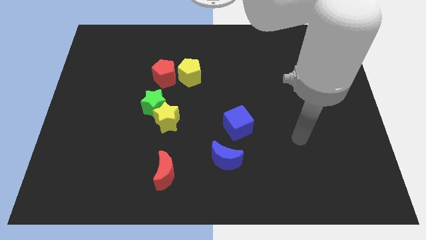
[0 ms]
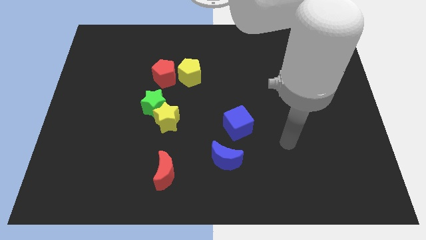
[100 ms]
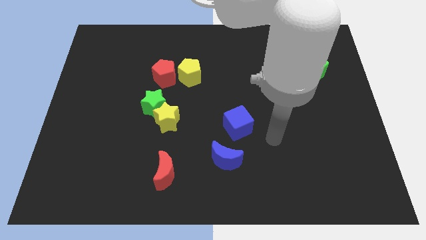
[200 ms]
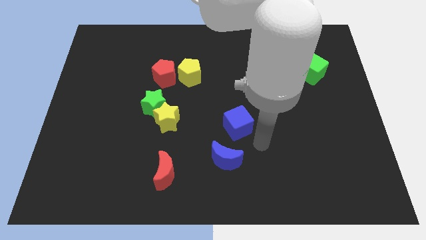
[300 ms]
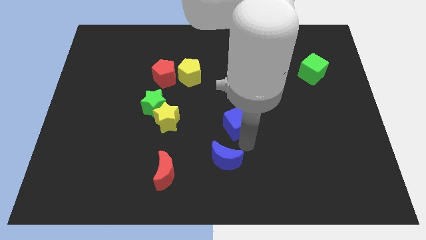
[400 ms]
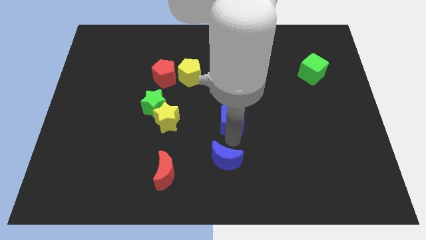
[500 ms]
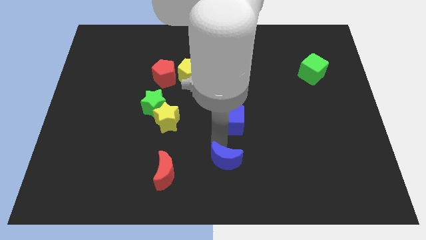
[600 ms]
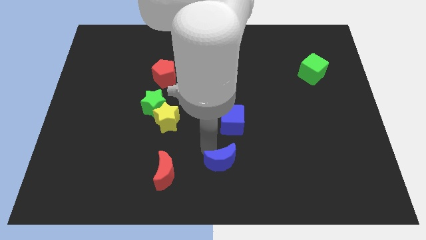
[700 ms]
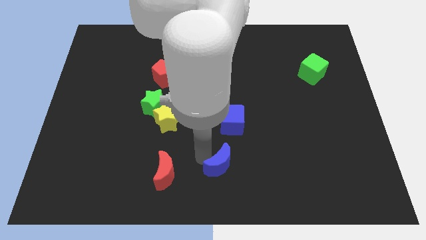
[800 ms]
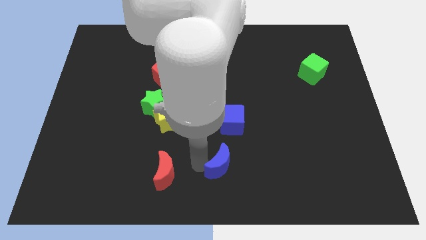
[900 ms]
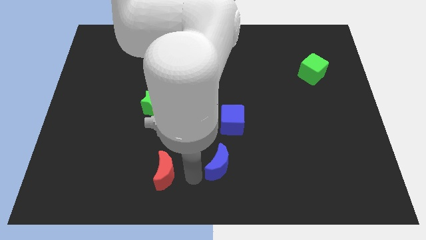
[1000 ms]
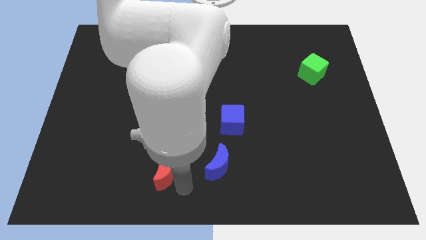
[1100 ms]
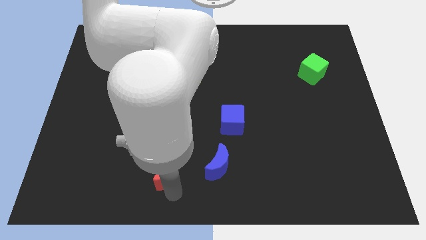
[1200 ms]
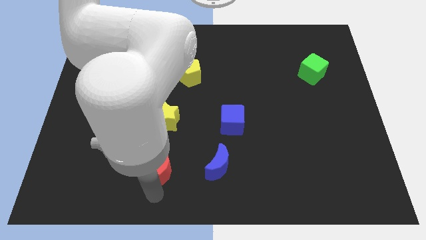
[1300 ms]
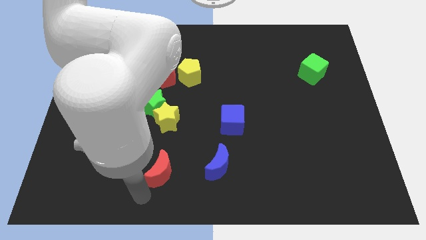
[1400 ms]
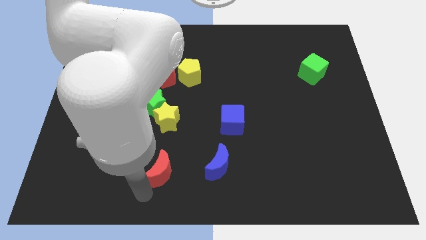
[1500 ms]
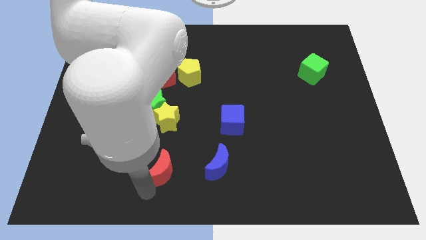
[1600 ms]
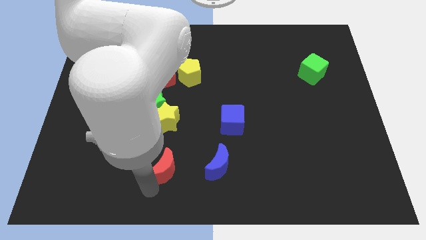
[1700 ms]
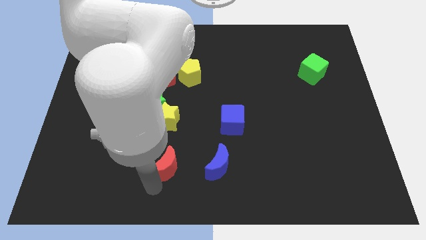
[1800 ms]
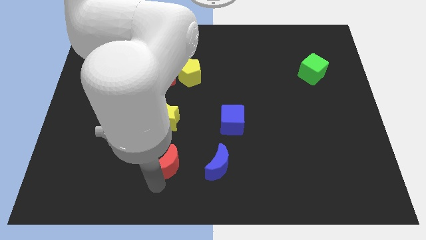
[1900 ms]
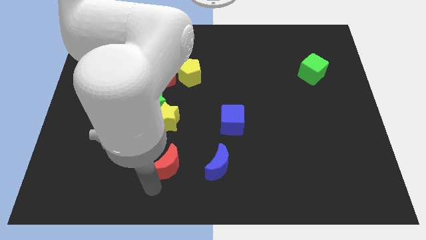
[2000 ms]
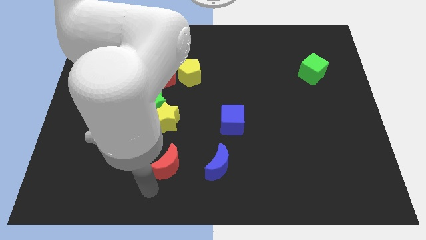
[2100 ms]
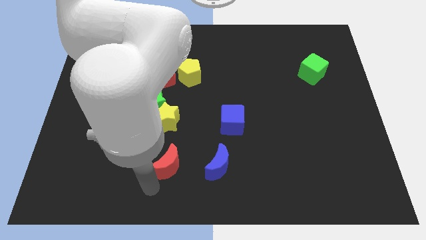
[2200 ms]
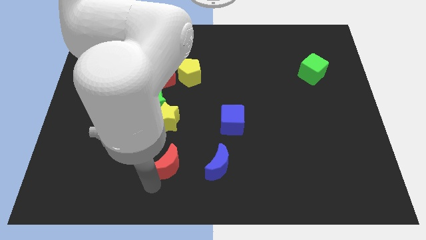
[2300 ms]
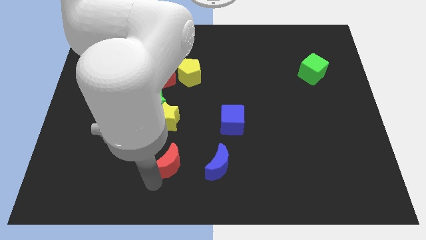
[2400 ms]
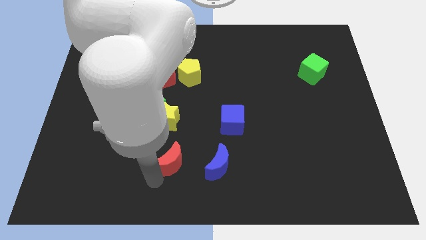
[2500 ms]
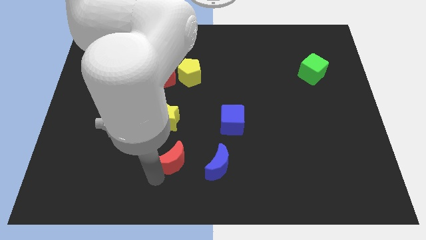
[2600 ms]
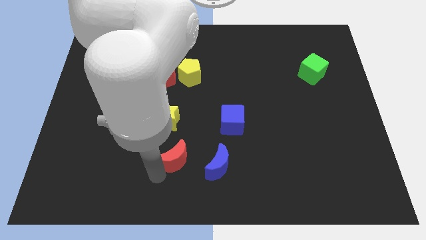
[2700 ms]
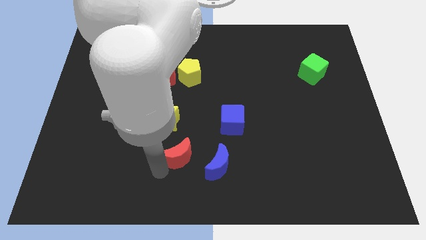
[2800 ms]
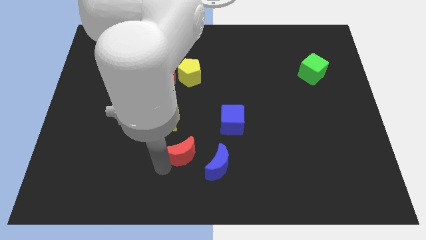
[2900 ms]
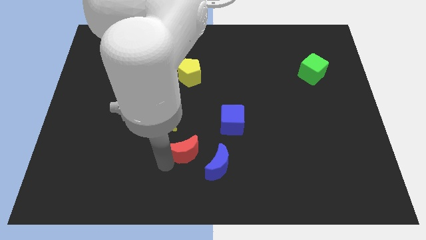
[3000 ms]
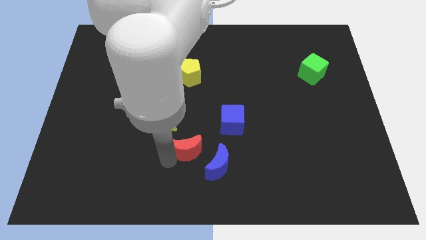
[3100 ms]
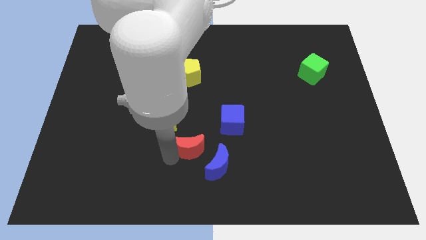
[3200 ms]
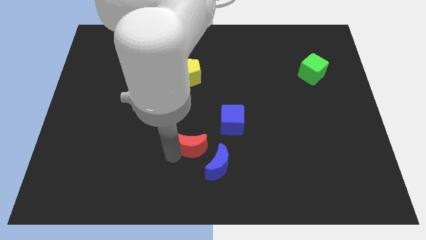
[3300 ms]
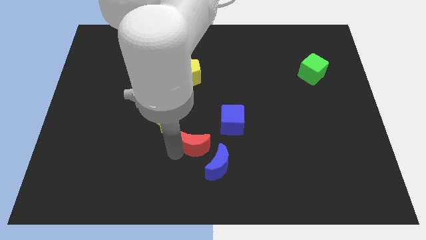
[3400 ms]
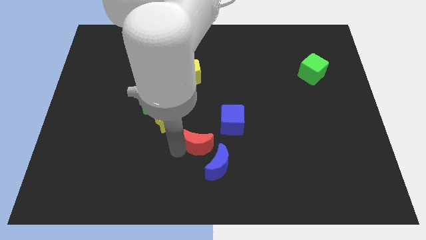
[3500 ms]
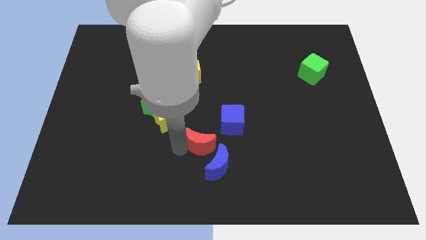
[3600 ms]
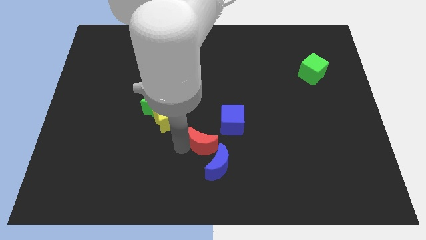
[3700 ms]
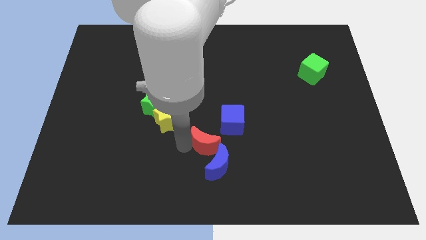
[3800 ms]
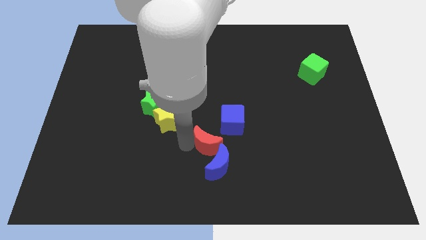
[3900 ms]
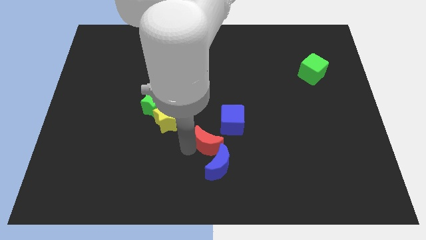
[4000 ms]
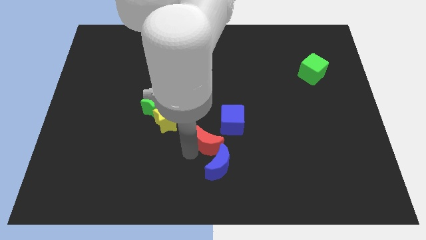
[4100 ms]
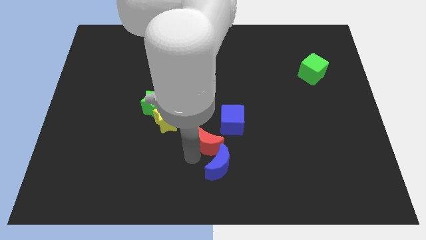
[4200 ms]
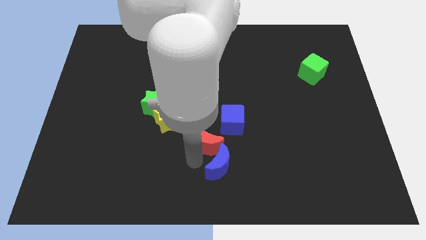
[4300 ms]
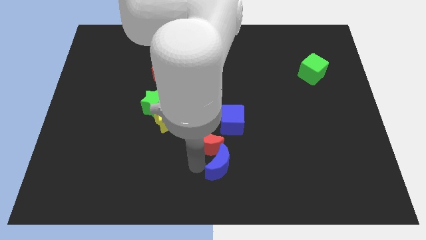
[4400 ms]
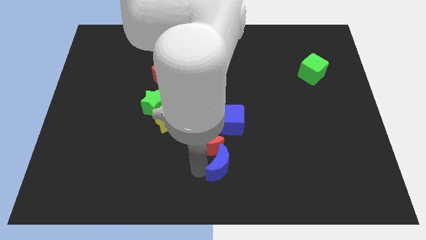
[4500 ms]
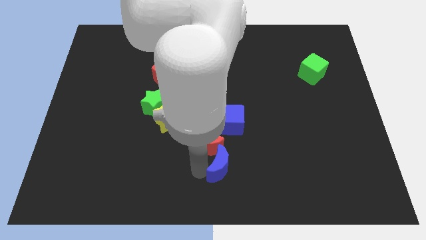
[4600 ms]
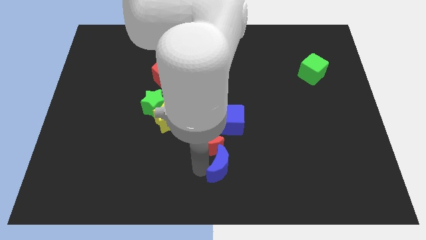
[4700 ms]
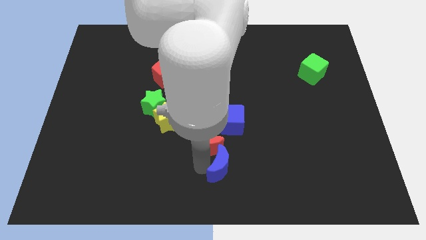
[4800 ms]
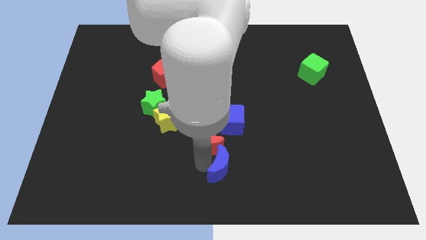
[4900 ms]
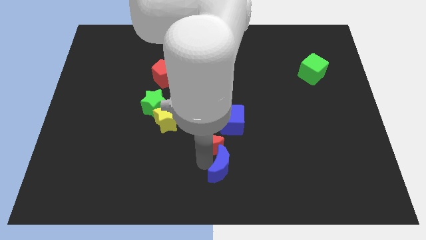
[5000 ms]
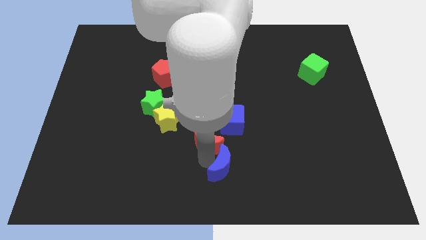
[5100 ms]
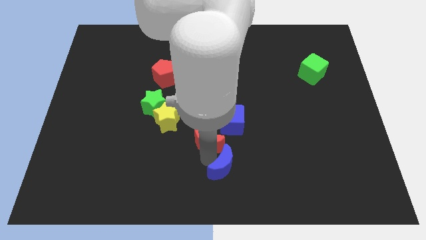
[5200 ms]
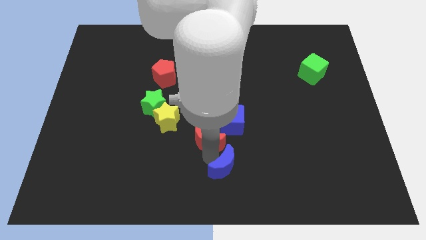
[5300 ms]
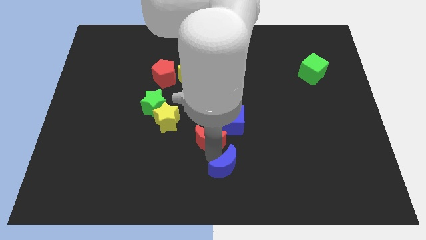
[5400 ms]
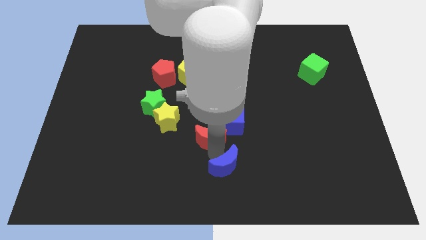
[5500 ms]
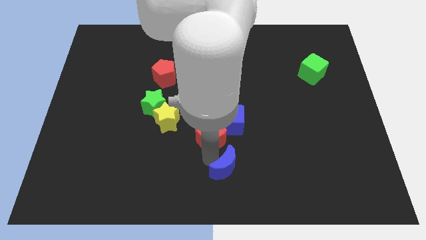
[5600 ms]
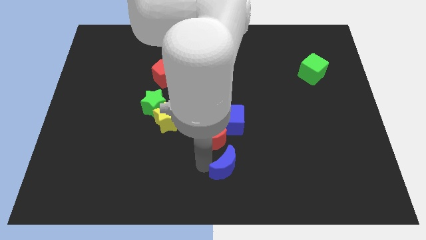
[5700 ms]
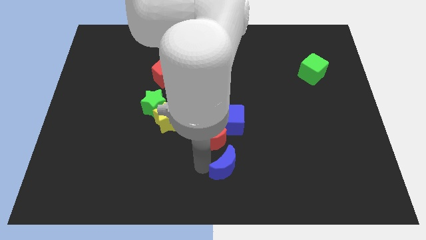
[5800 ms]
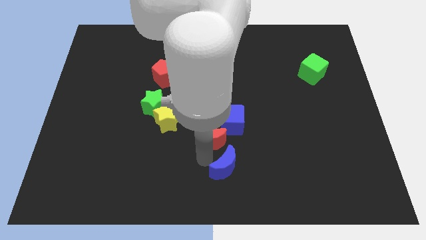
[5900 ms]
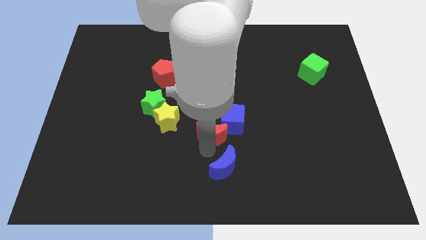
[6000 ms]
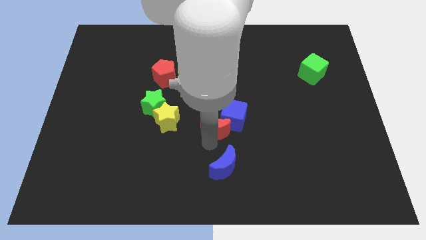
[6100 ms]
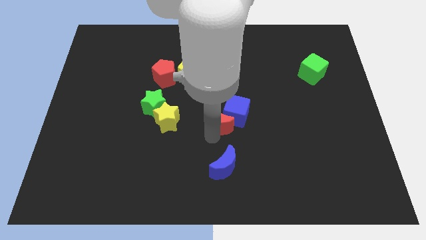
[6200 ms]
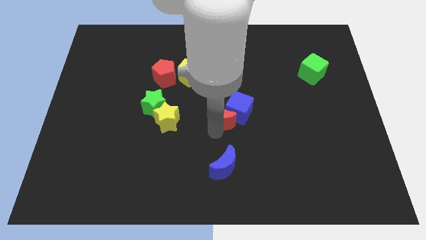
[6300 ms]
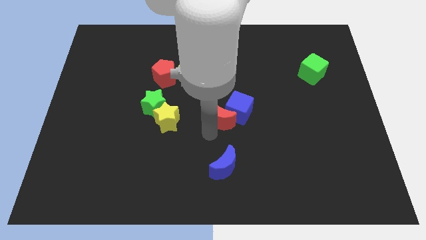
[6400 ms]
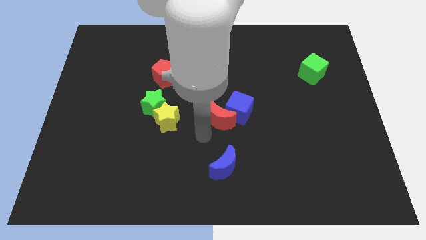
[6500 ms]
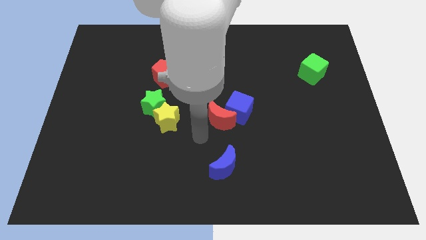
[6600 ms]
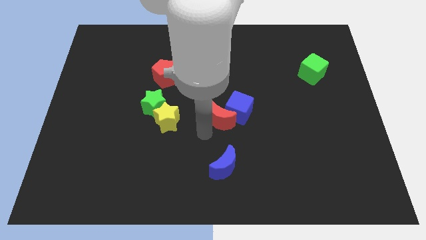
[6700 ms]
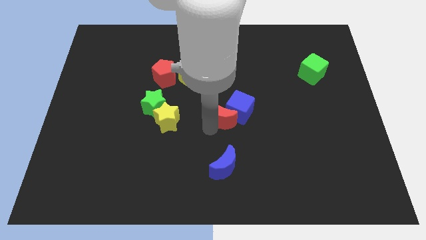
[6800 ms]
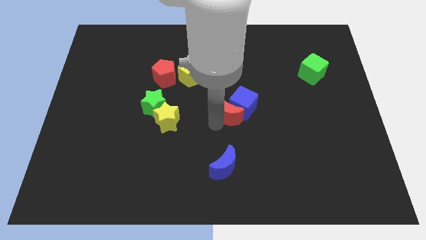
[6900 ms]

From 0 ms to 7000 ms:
push the red moon upwards and to the right diagonally

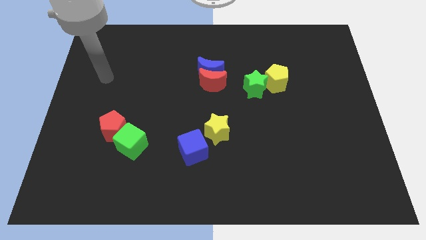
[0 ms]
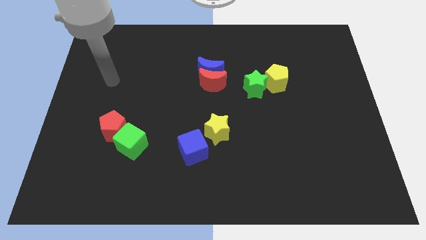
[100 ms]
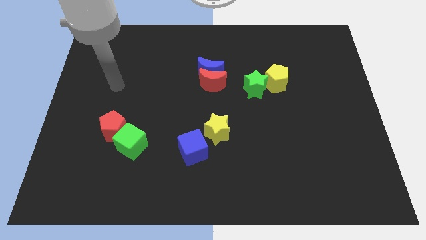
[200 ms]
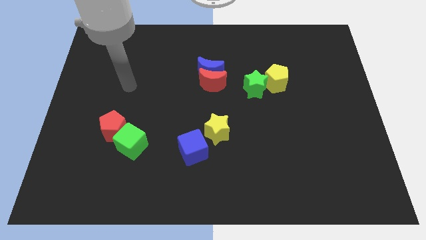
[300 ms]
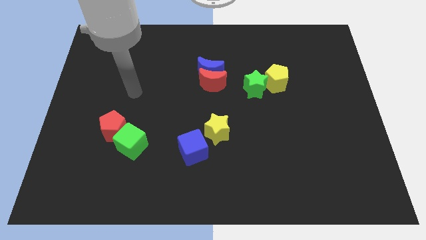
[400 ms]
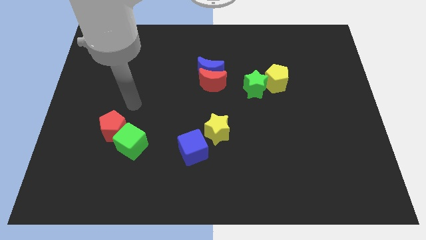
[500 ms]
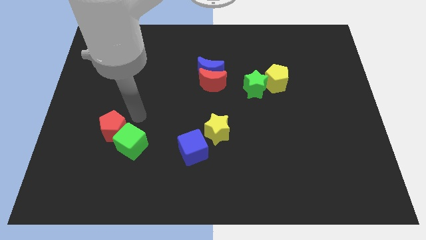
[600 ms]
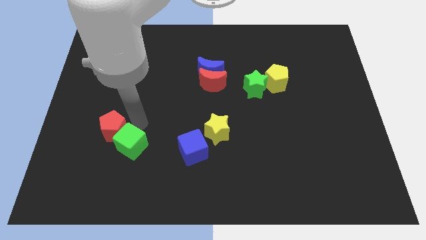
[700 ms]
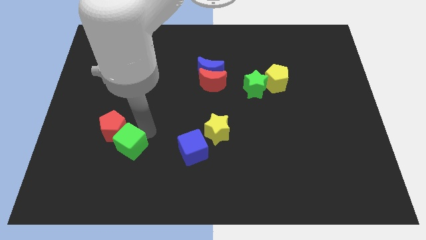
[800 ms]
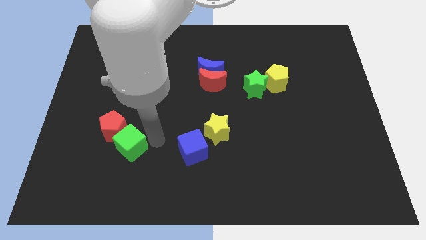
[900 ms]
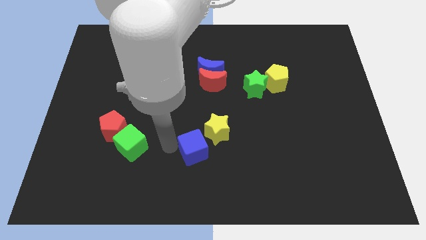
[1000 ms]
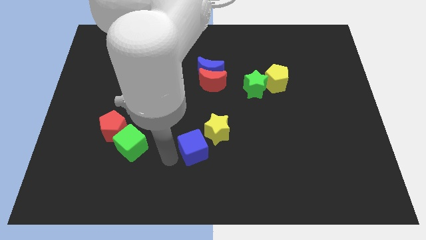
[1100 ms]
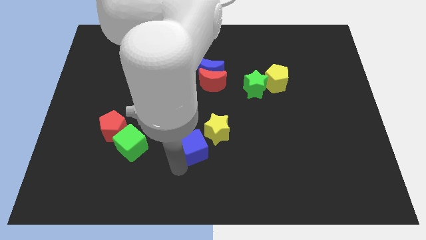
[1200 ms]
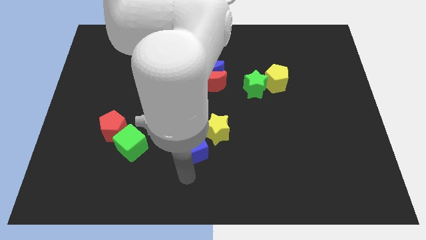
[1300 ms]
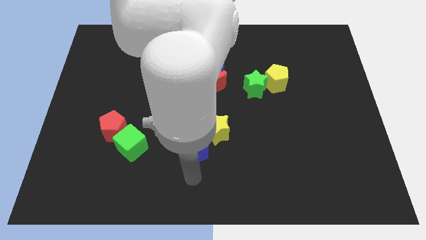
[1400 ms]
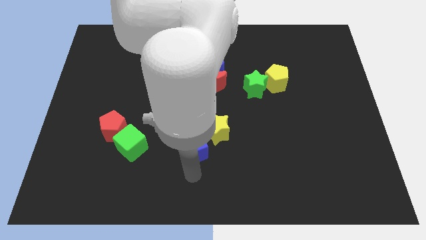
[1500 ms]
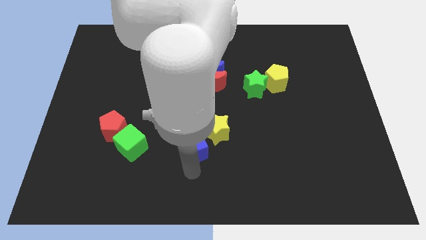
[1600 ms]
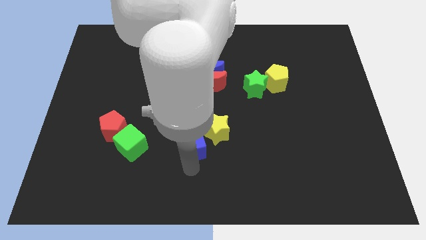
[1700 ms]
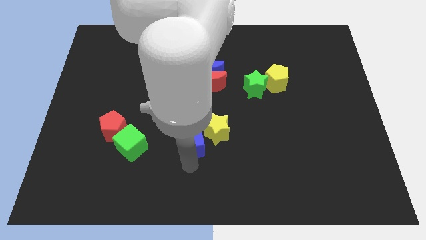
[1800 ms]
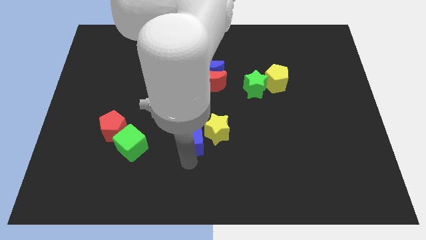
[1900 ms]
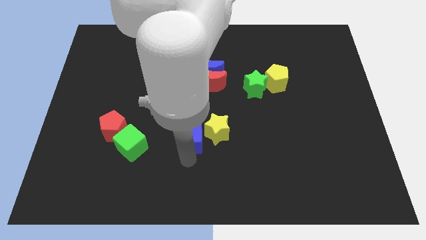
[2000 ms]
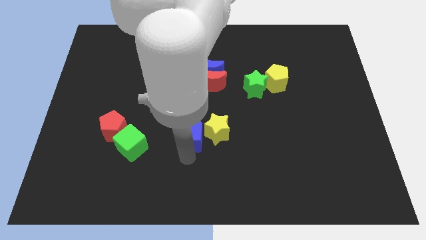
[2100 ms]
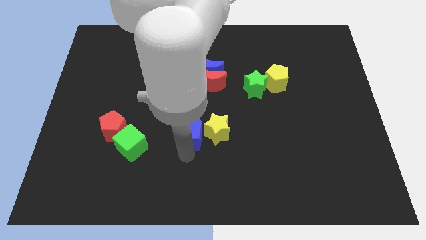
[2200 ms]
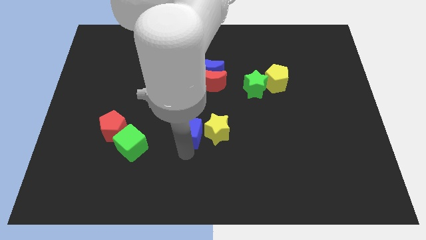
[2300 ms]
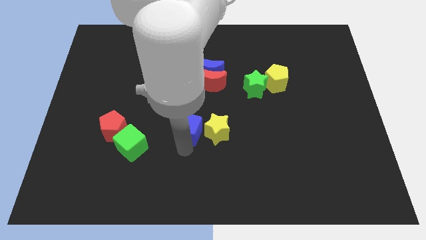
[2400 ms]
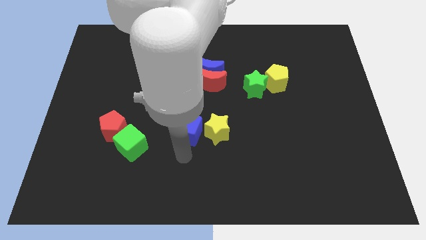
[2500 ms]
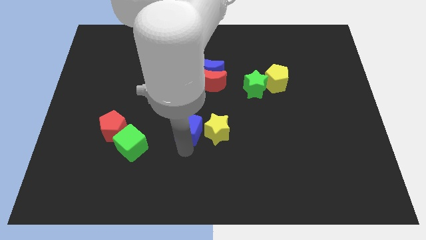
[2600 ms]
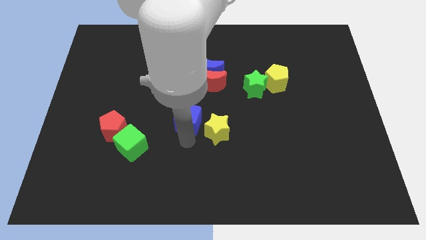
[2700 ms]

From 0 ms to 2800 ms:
push the blue cube up slightly
